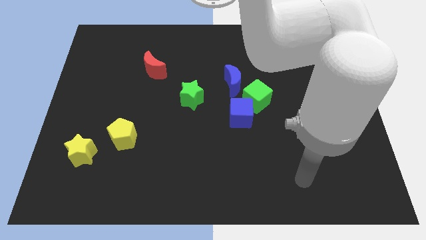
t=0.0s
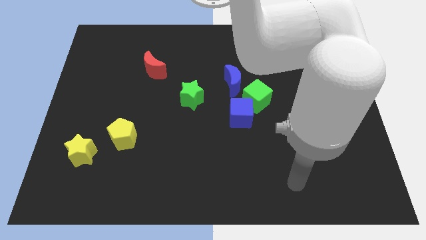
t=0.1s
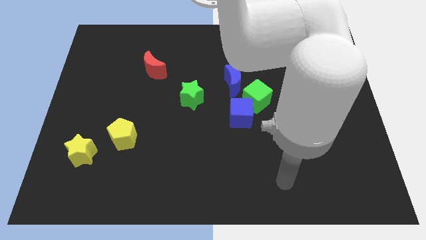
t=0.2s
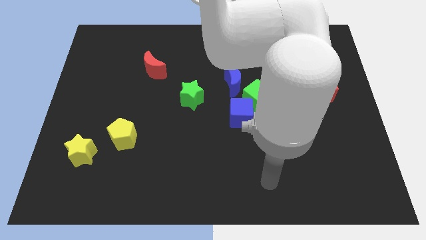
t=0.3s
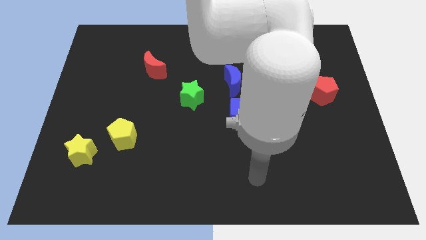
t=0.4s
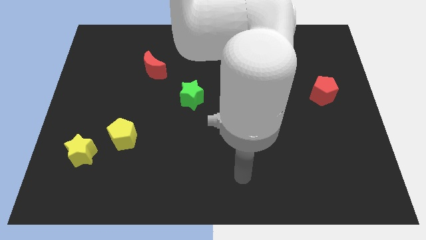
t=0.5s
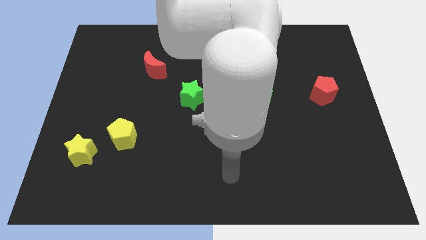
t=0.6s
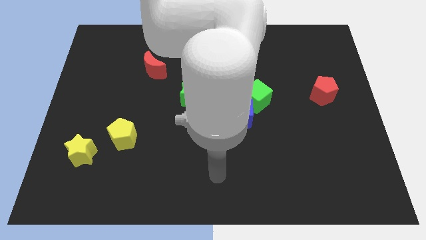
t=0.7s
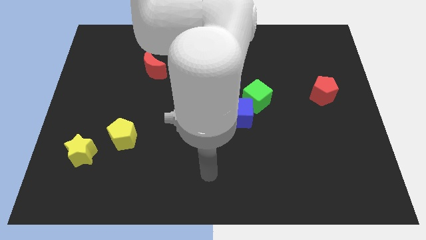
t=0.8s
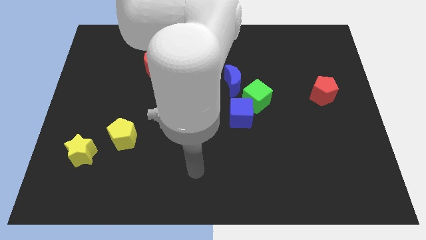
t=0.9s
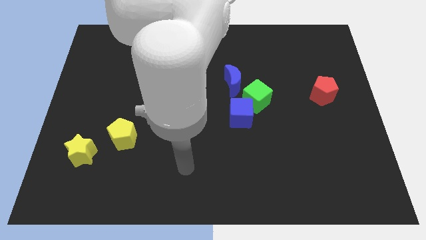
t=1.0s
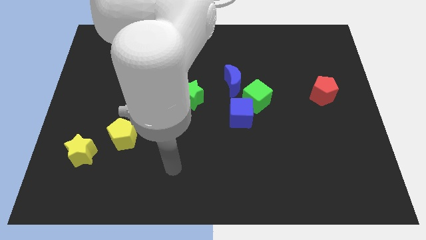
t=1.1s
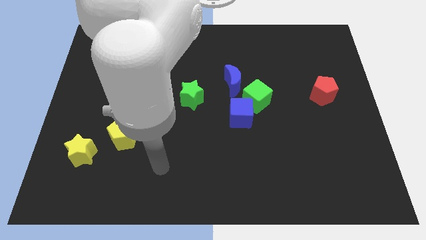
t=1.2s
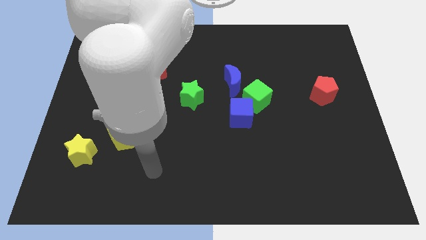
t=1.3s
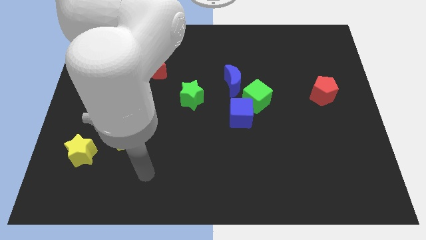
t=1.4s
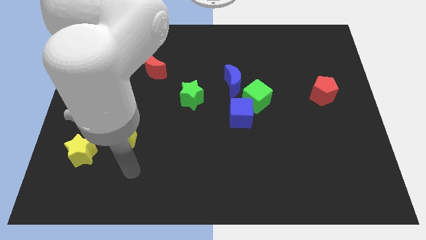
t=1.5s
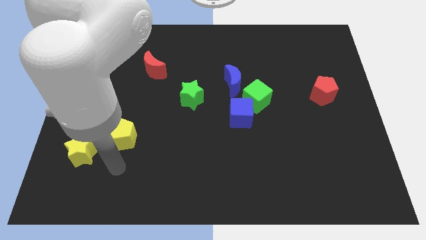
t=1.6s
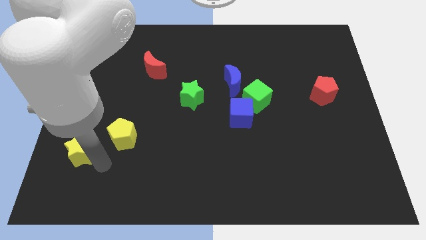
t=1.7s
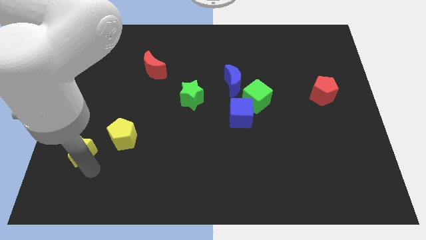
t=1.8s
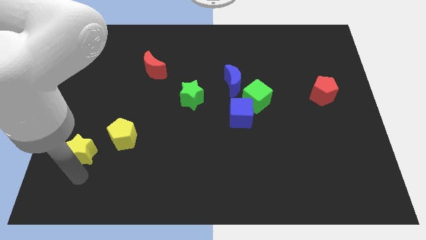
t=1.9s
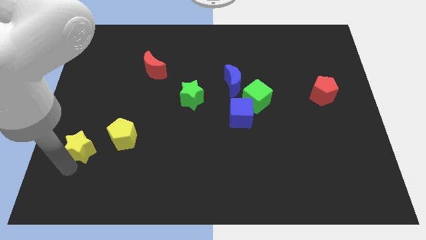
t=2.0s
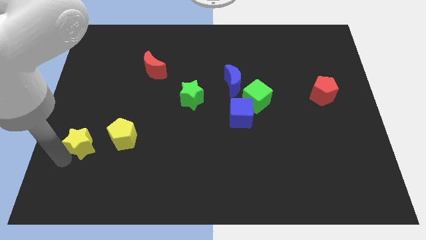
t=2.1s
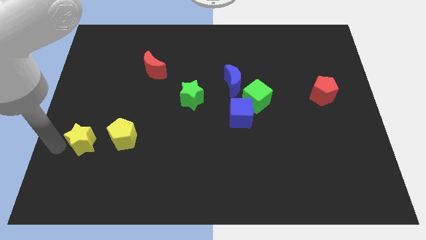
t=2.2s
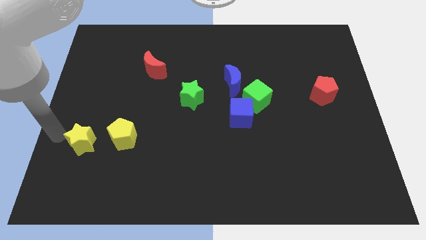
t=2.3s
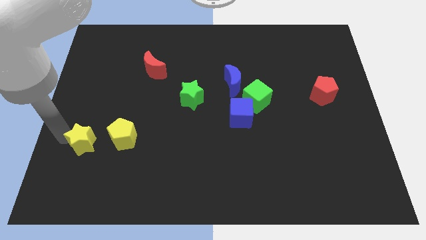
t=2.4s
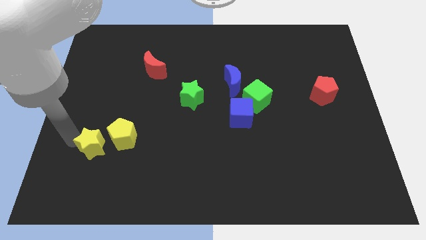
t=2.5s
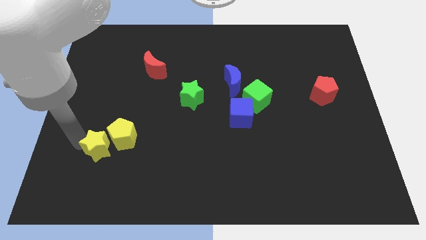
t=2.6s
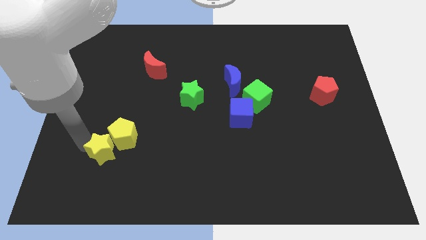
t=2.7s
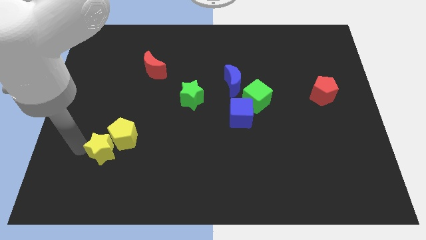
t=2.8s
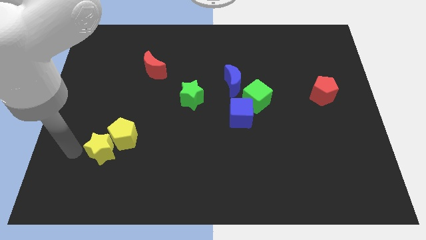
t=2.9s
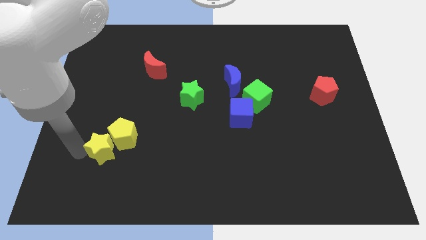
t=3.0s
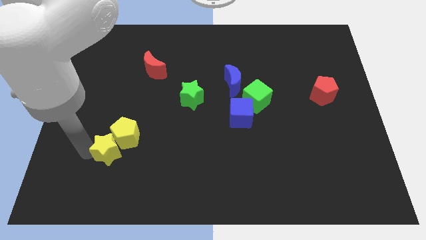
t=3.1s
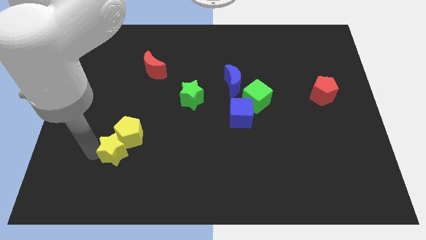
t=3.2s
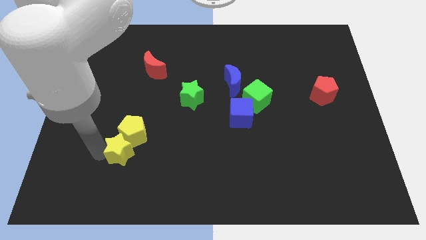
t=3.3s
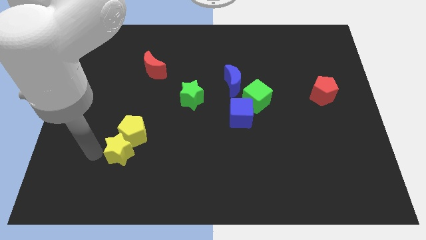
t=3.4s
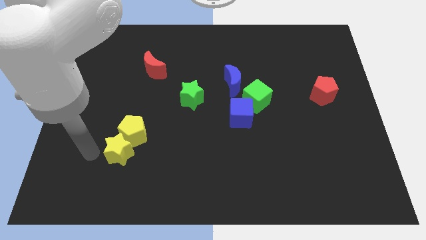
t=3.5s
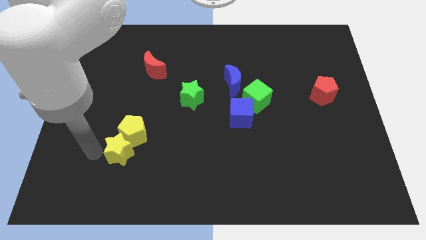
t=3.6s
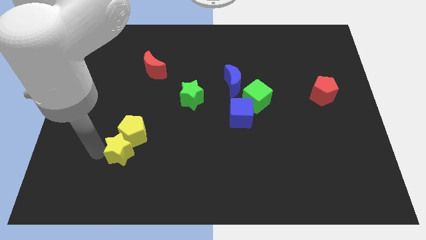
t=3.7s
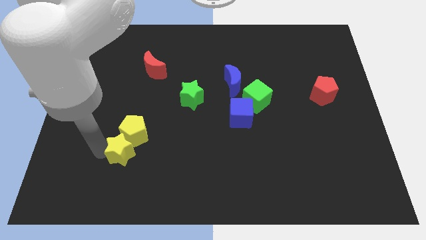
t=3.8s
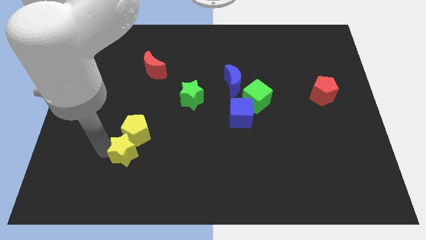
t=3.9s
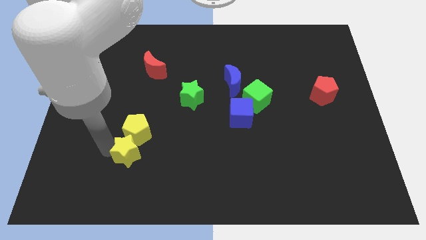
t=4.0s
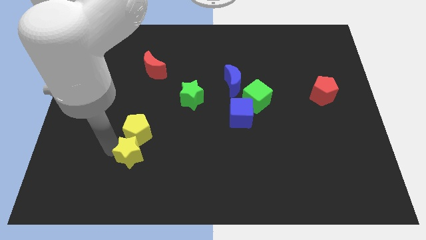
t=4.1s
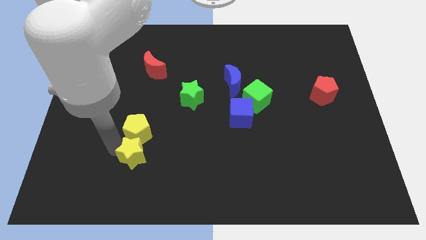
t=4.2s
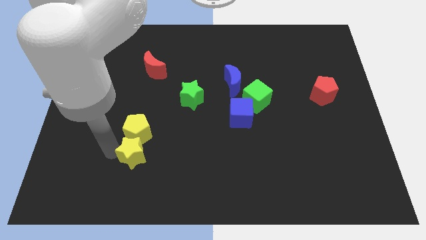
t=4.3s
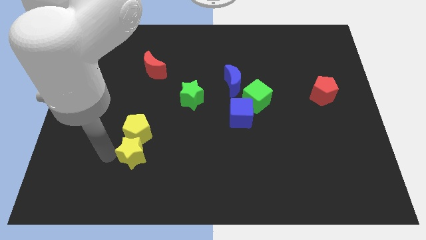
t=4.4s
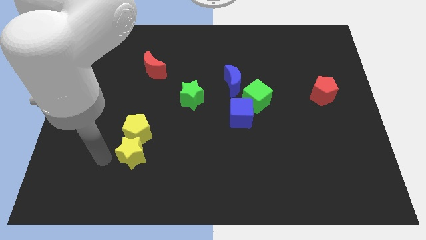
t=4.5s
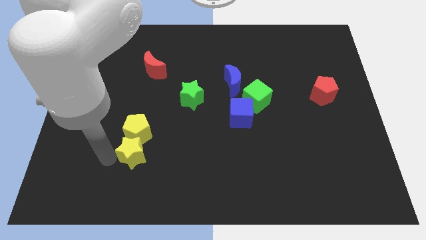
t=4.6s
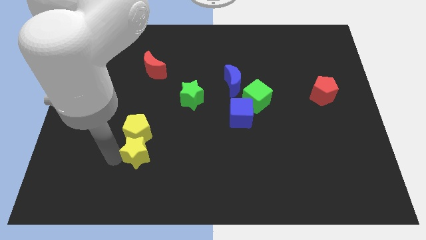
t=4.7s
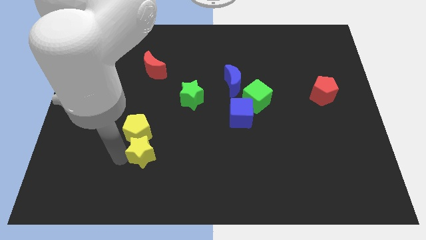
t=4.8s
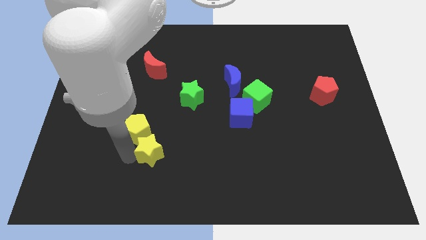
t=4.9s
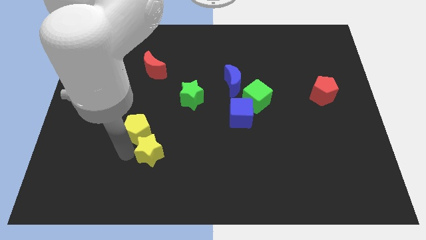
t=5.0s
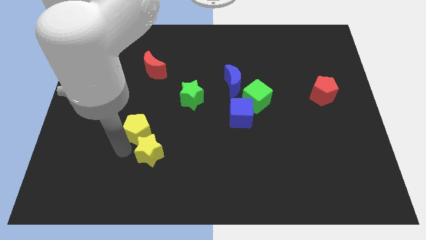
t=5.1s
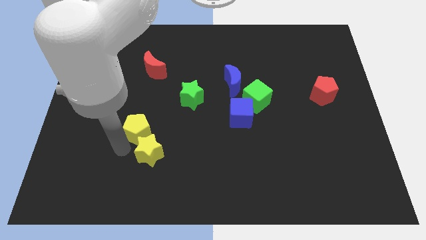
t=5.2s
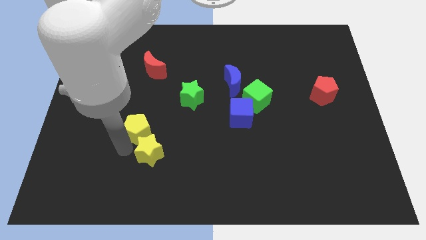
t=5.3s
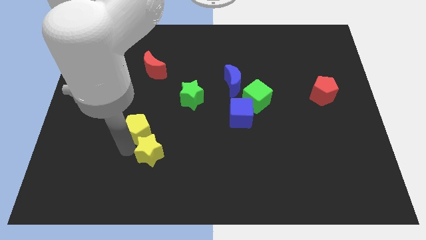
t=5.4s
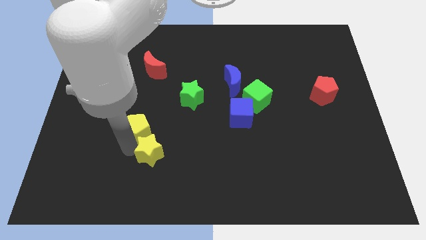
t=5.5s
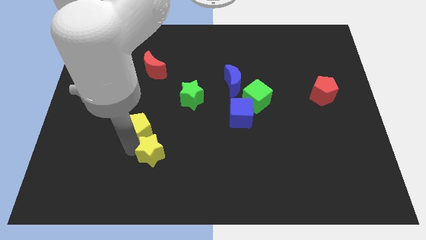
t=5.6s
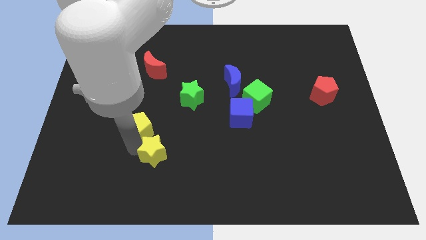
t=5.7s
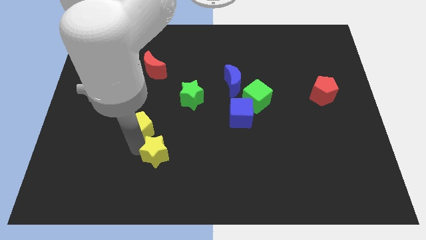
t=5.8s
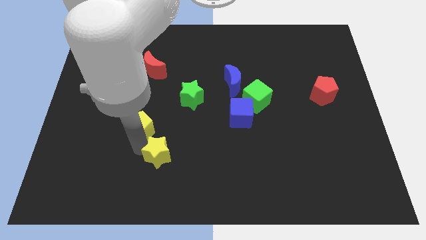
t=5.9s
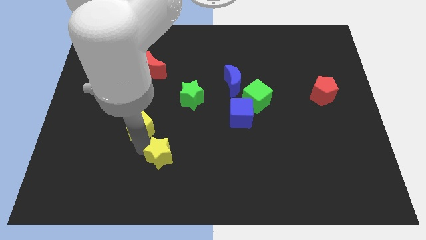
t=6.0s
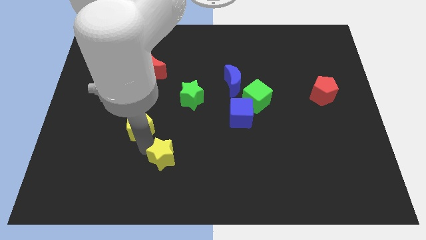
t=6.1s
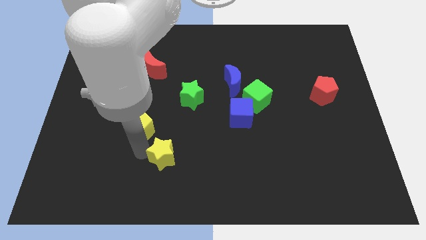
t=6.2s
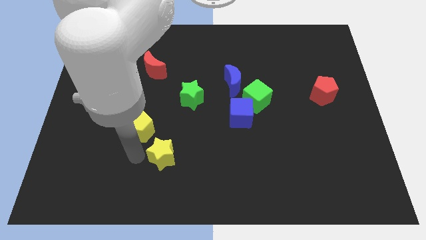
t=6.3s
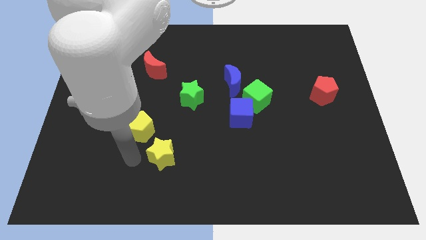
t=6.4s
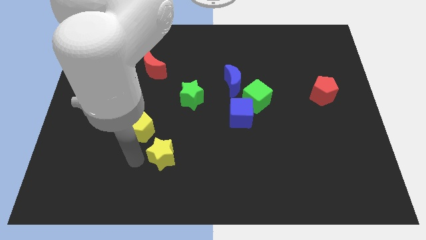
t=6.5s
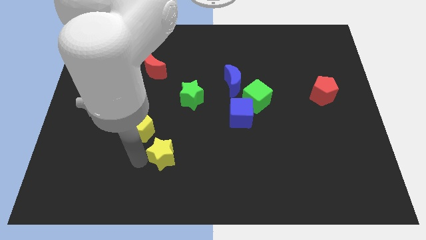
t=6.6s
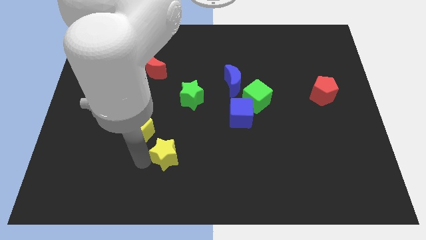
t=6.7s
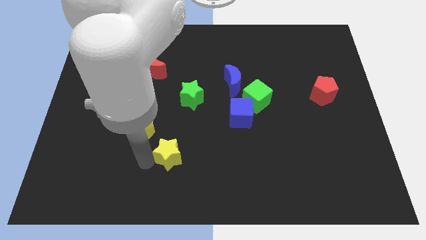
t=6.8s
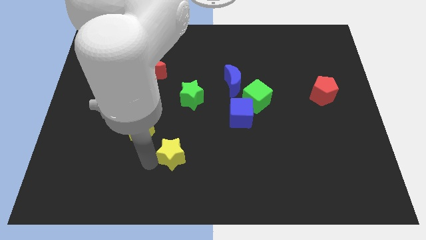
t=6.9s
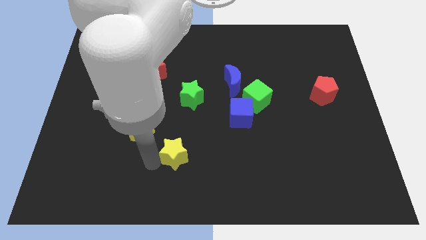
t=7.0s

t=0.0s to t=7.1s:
slide the yellow star right

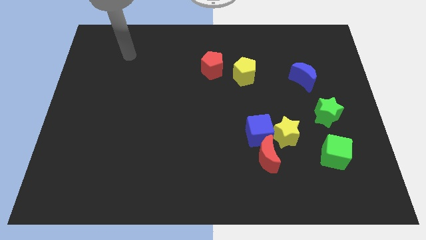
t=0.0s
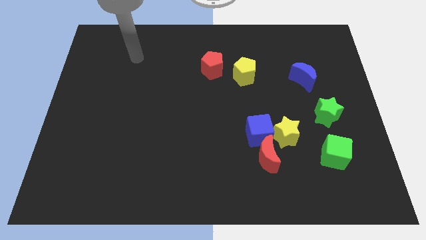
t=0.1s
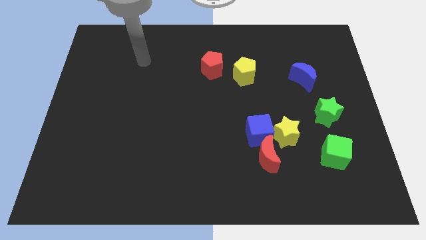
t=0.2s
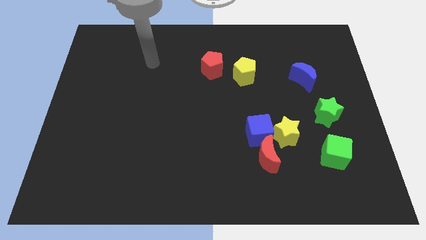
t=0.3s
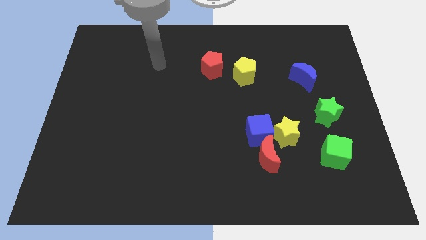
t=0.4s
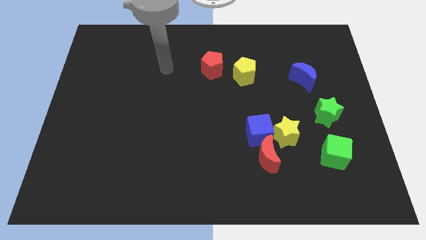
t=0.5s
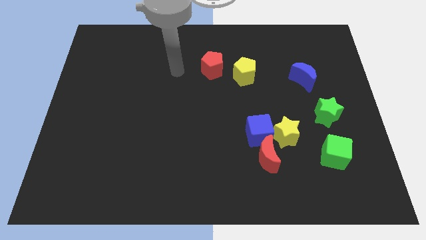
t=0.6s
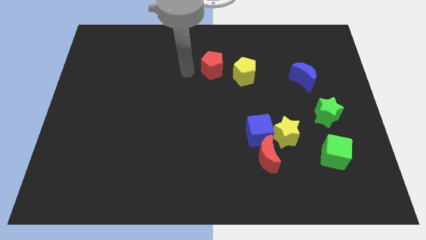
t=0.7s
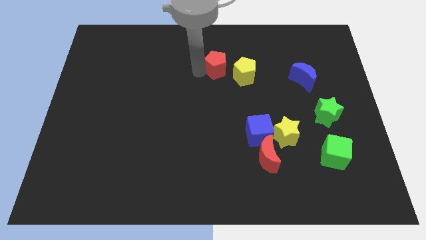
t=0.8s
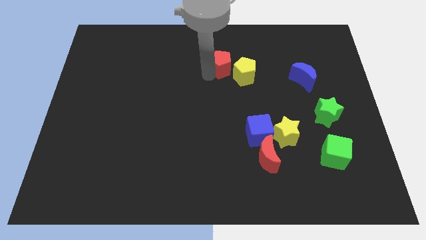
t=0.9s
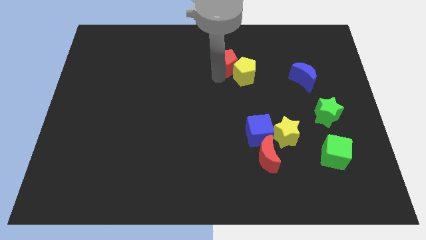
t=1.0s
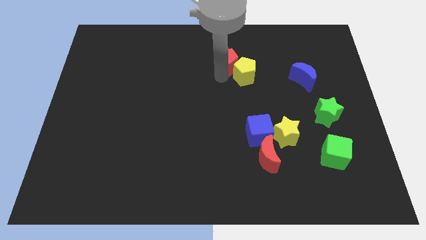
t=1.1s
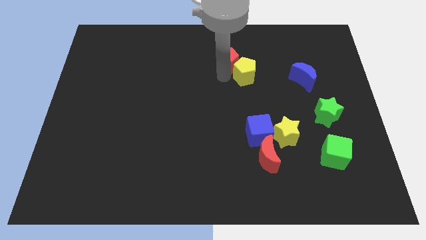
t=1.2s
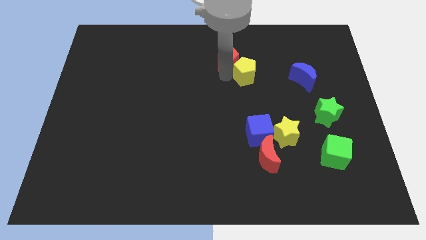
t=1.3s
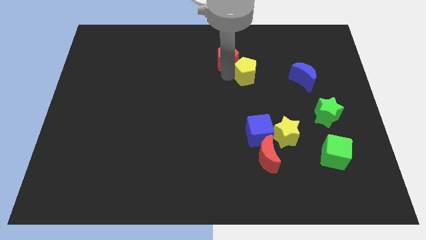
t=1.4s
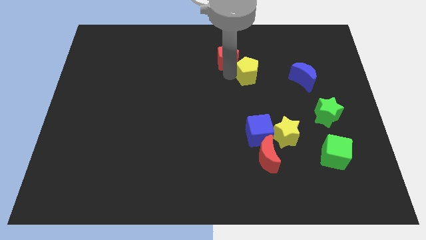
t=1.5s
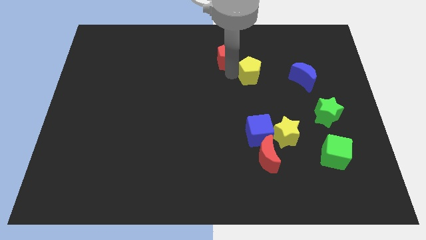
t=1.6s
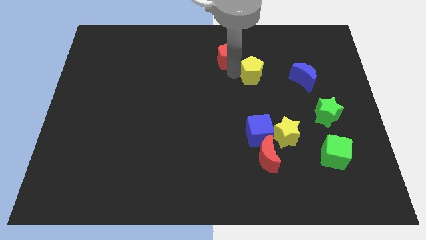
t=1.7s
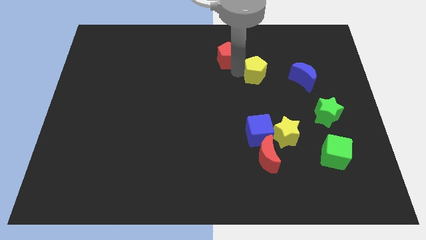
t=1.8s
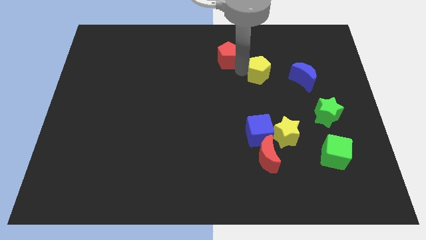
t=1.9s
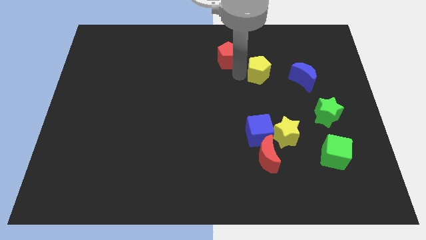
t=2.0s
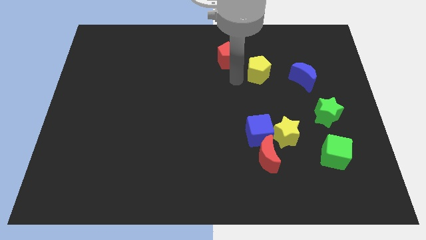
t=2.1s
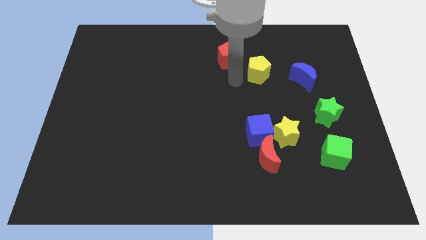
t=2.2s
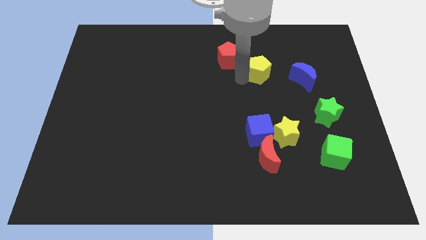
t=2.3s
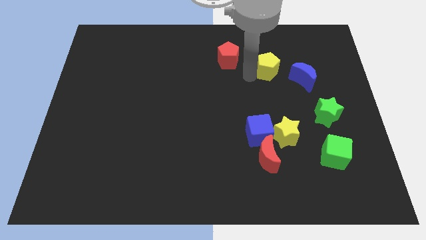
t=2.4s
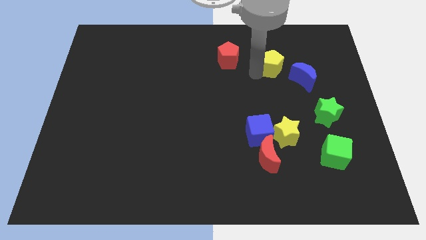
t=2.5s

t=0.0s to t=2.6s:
slightly move the yellow pentagon to the right
